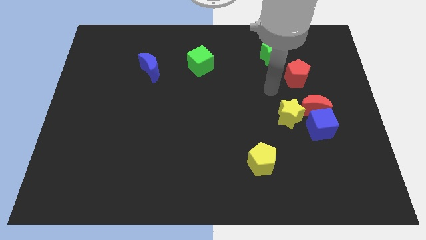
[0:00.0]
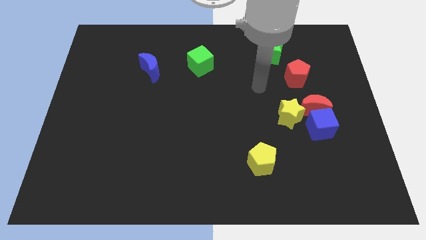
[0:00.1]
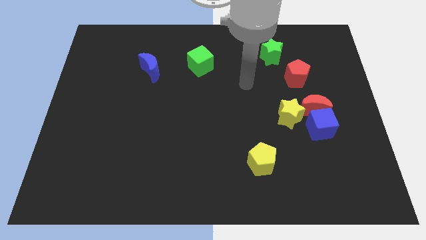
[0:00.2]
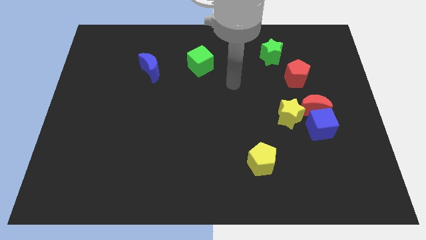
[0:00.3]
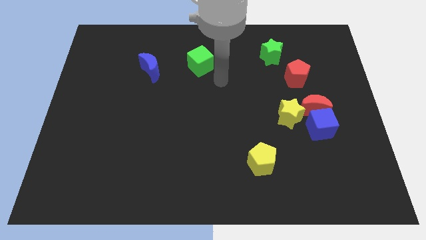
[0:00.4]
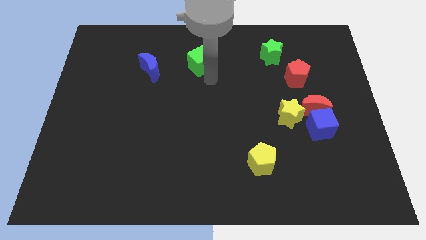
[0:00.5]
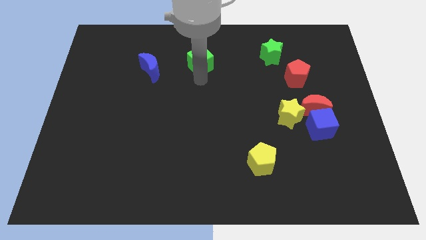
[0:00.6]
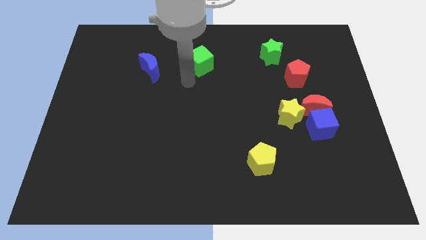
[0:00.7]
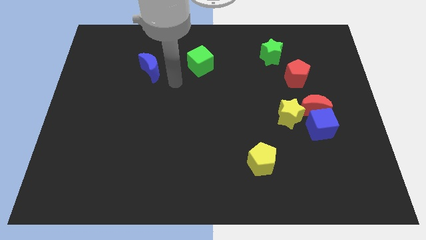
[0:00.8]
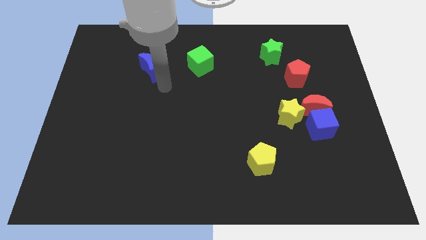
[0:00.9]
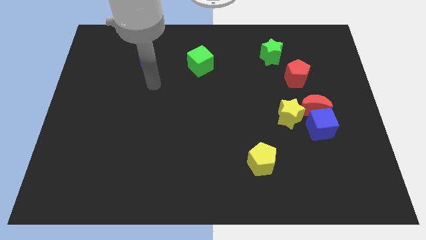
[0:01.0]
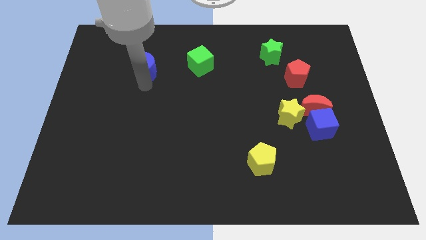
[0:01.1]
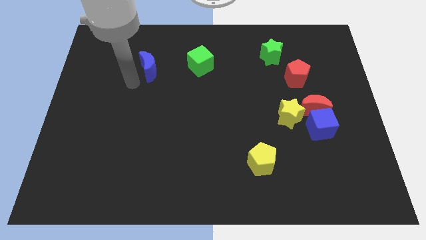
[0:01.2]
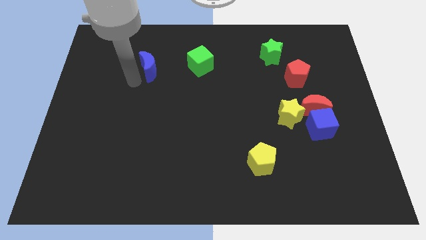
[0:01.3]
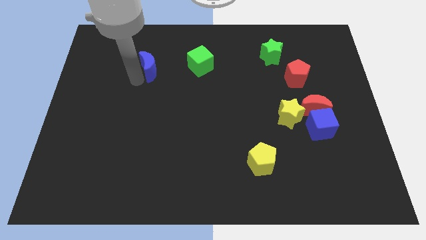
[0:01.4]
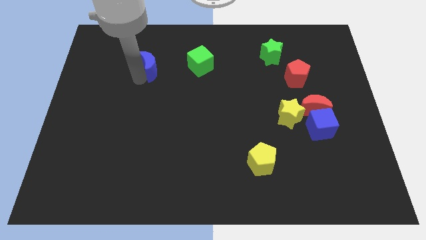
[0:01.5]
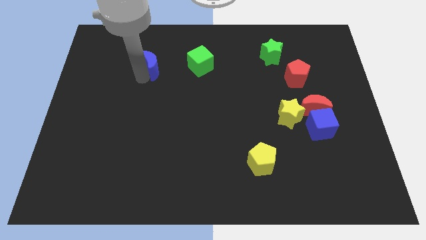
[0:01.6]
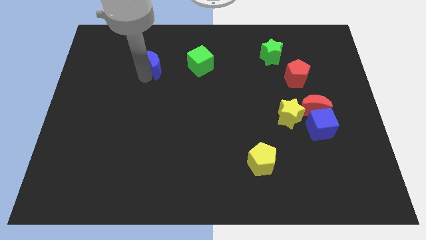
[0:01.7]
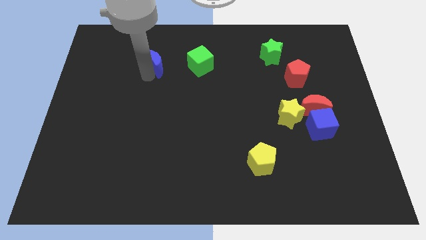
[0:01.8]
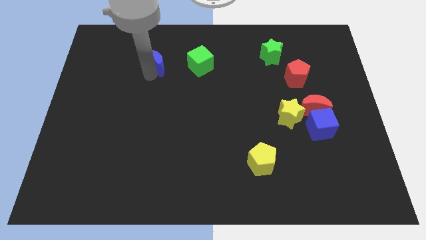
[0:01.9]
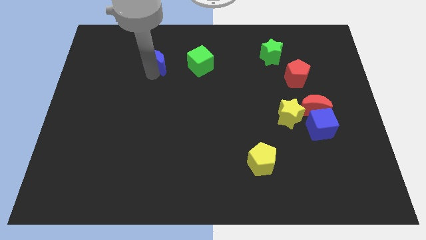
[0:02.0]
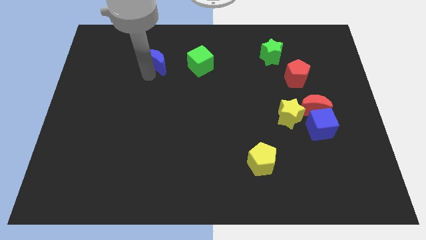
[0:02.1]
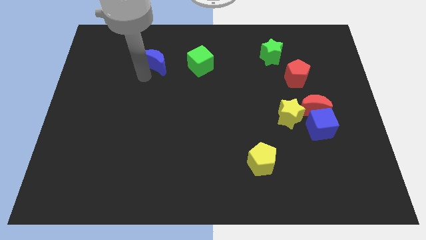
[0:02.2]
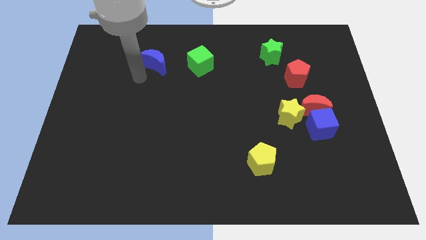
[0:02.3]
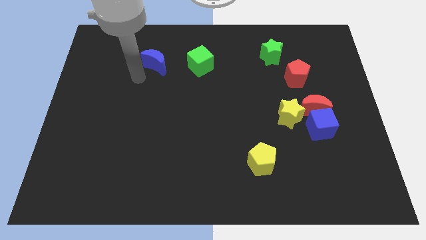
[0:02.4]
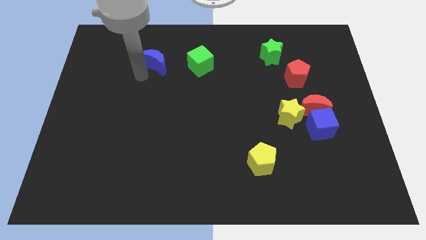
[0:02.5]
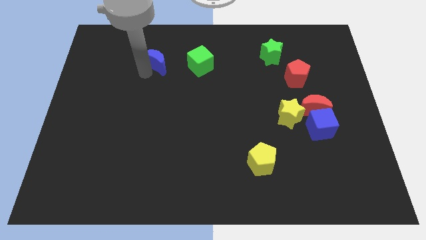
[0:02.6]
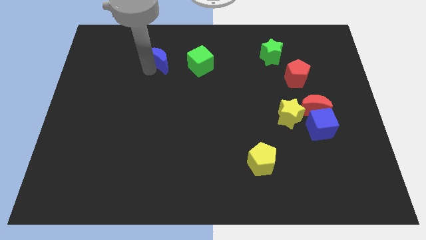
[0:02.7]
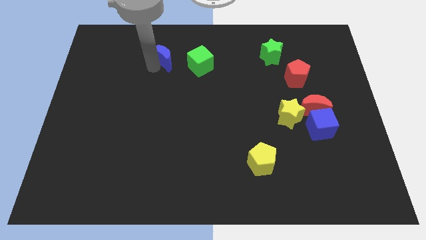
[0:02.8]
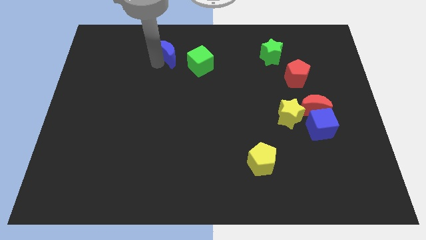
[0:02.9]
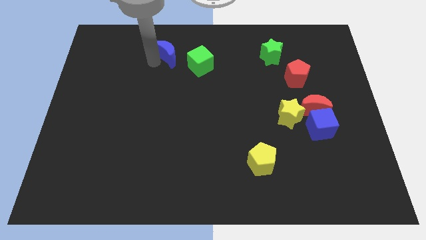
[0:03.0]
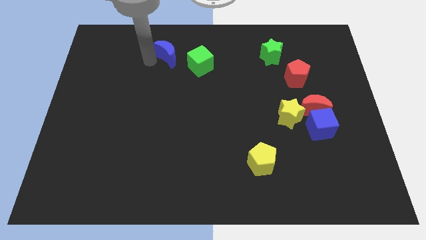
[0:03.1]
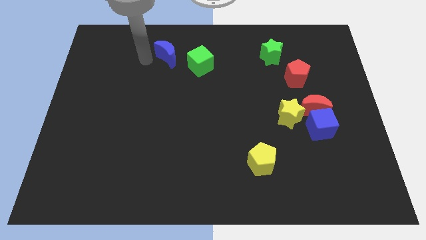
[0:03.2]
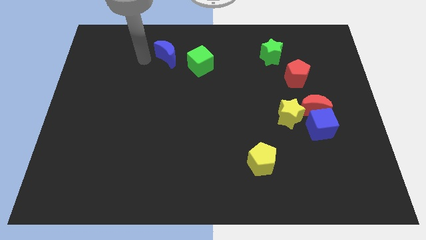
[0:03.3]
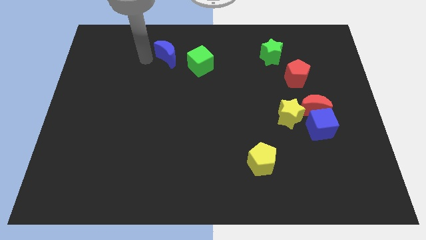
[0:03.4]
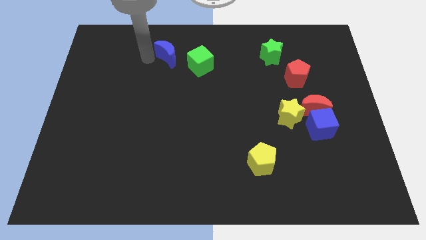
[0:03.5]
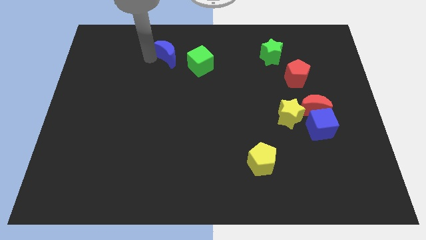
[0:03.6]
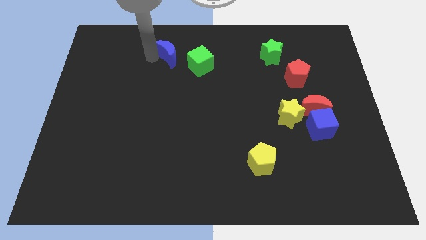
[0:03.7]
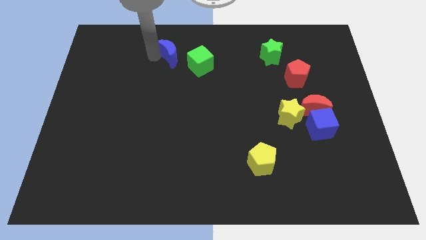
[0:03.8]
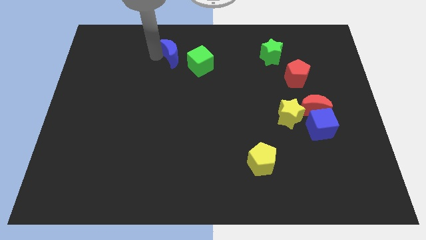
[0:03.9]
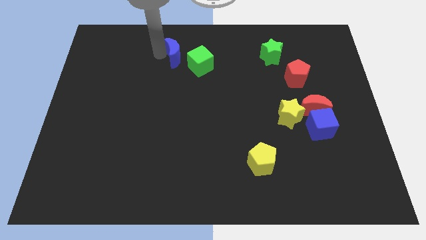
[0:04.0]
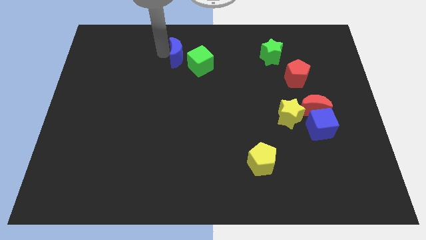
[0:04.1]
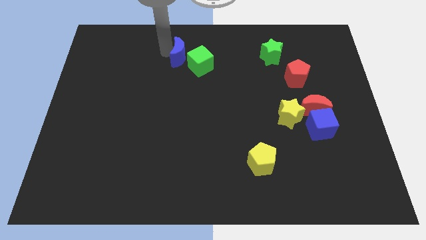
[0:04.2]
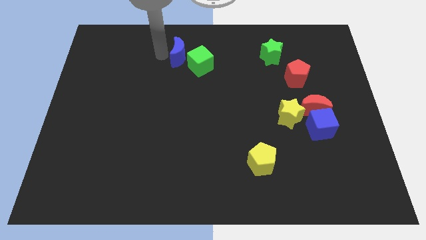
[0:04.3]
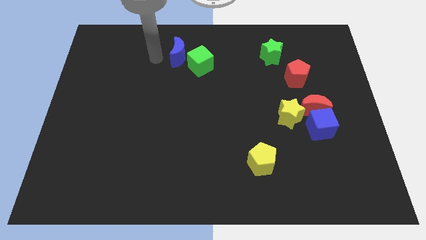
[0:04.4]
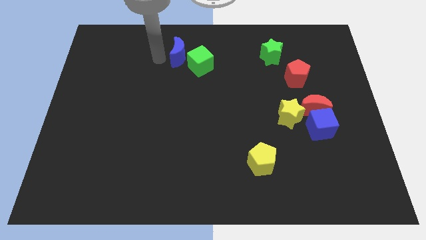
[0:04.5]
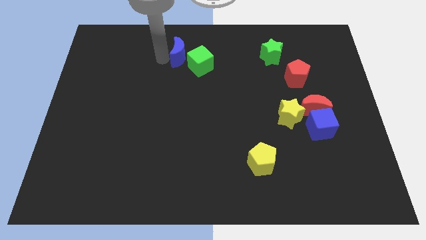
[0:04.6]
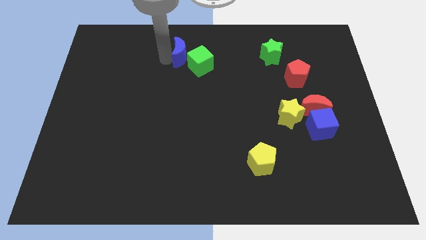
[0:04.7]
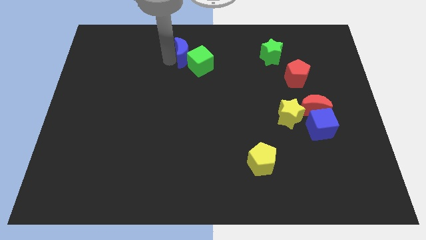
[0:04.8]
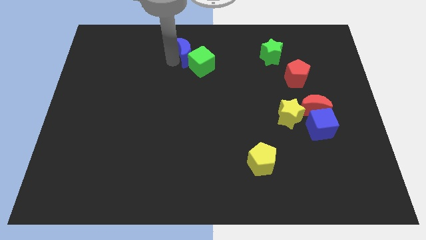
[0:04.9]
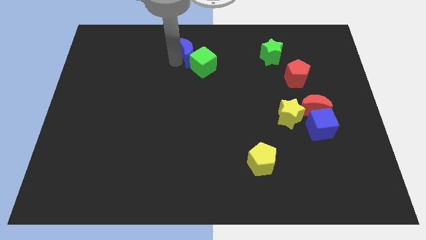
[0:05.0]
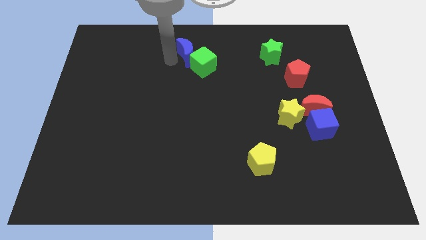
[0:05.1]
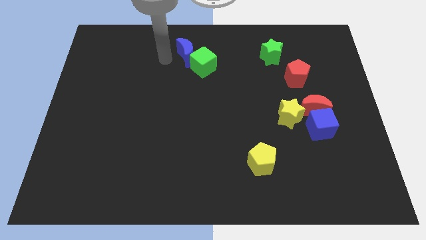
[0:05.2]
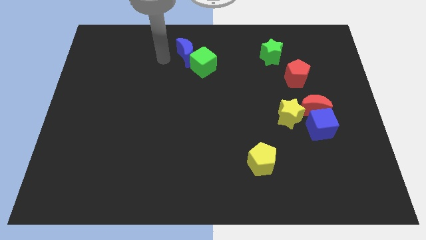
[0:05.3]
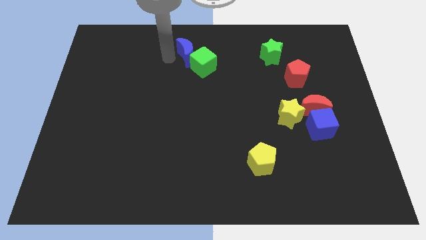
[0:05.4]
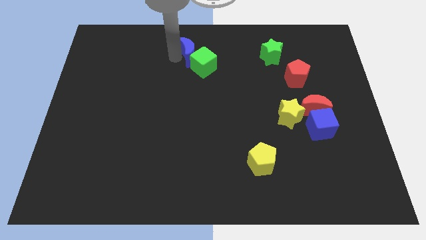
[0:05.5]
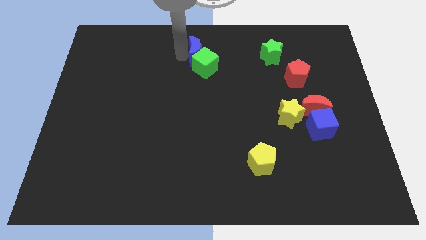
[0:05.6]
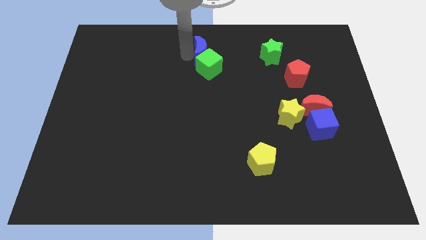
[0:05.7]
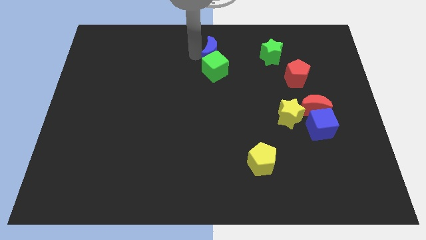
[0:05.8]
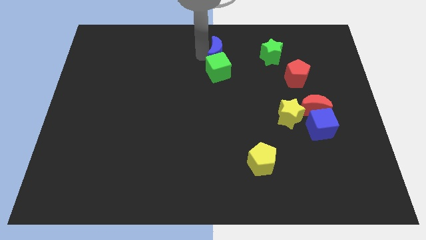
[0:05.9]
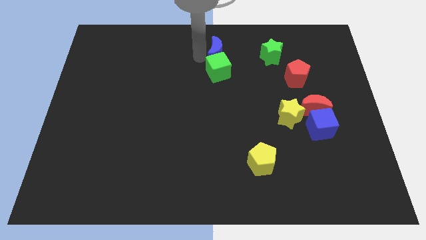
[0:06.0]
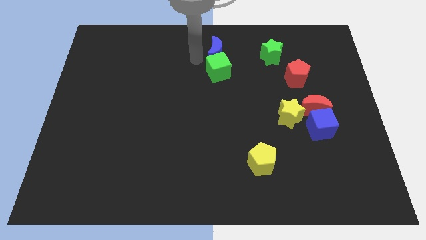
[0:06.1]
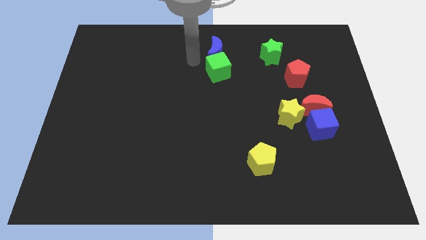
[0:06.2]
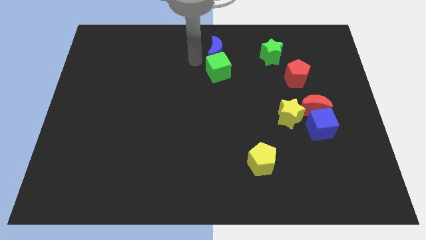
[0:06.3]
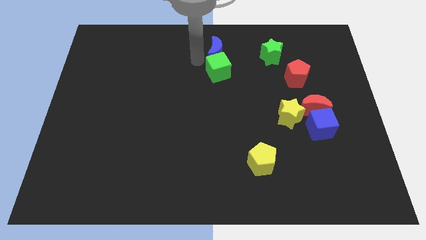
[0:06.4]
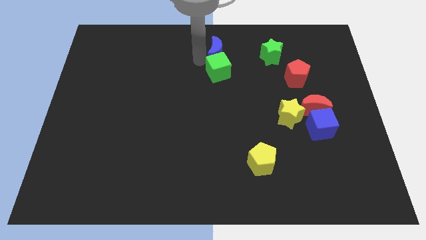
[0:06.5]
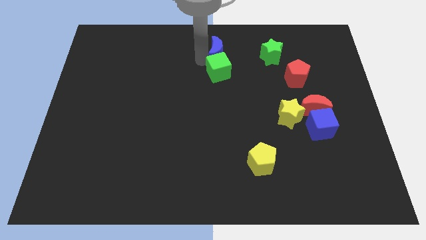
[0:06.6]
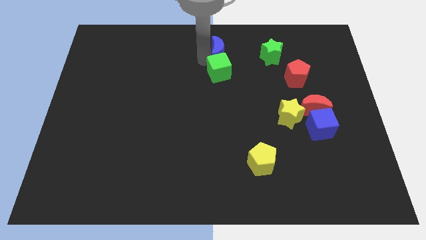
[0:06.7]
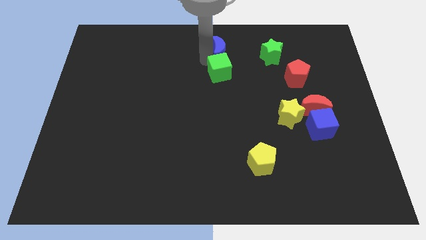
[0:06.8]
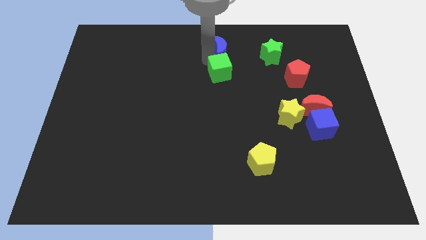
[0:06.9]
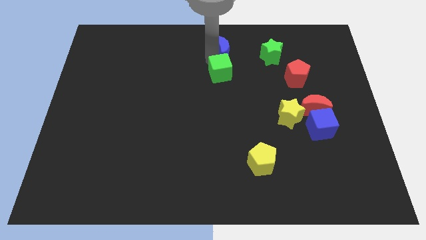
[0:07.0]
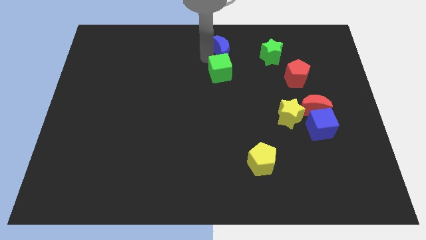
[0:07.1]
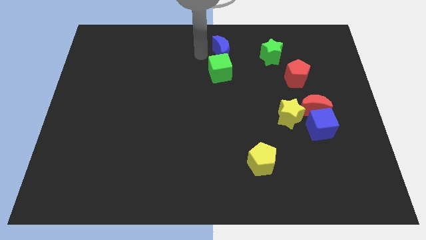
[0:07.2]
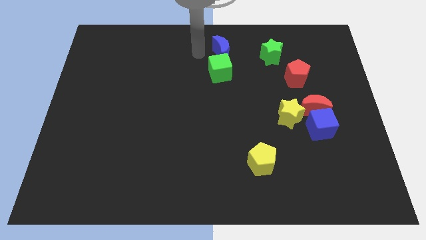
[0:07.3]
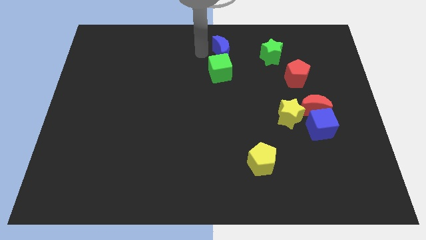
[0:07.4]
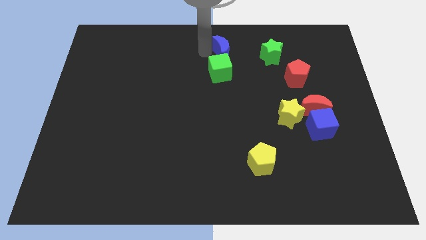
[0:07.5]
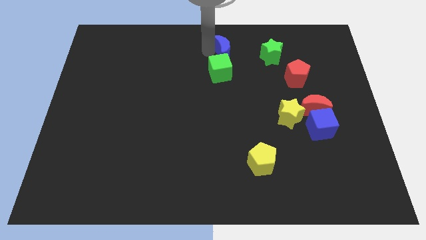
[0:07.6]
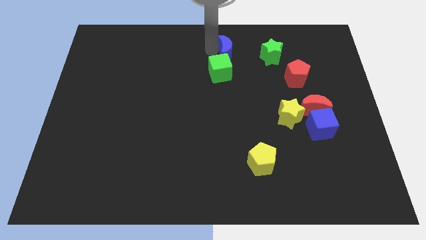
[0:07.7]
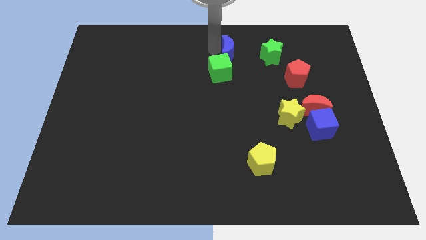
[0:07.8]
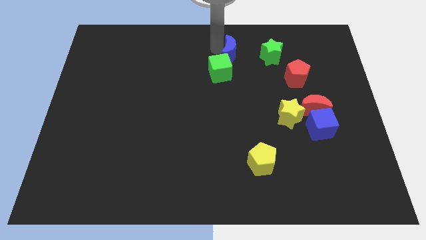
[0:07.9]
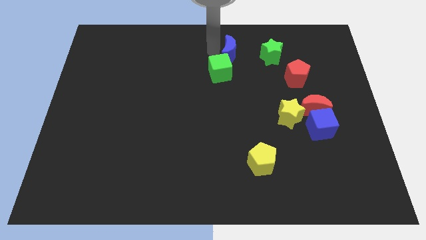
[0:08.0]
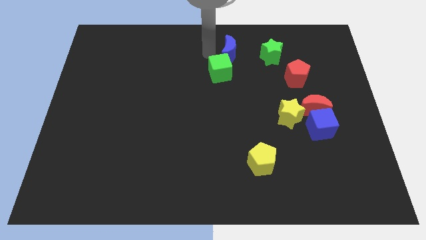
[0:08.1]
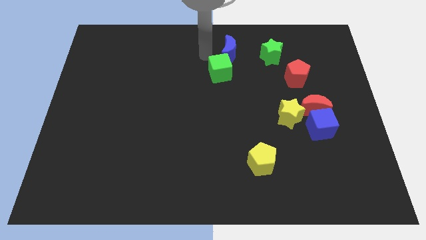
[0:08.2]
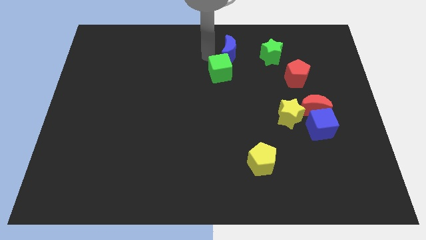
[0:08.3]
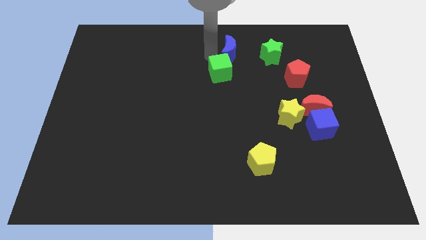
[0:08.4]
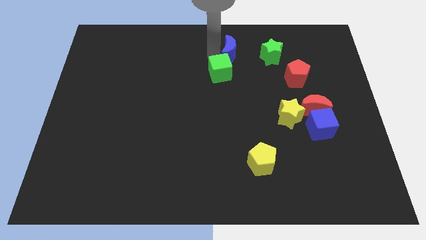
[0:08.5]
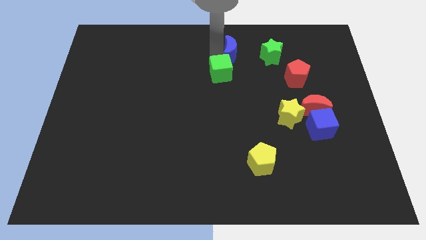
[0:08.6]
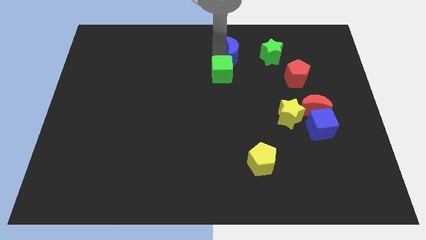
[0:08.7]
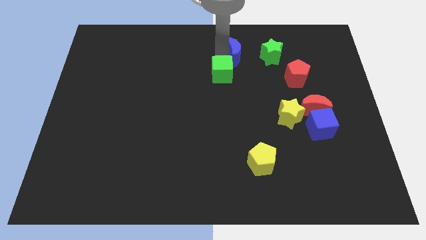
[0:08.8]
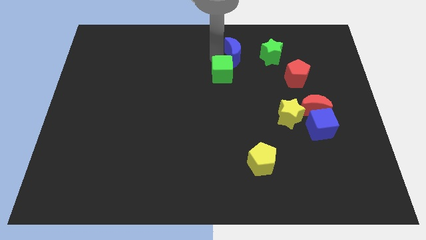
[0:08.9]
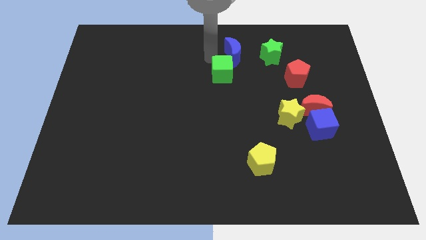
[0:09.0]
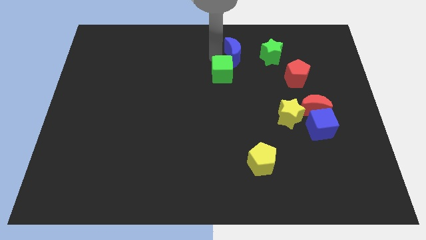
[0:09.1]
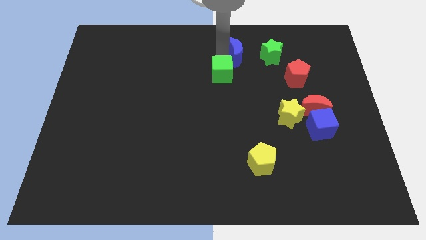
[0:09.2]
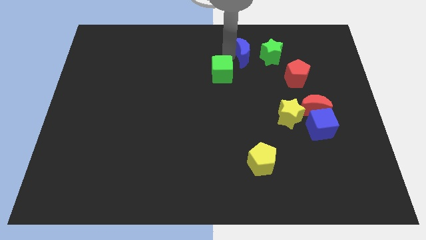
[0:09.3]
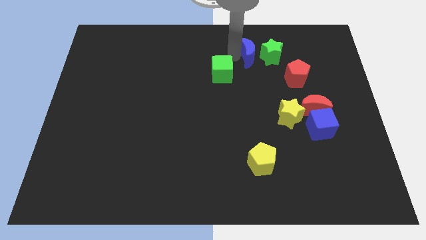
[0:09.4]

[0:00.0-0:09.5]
put the blue moon next to the green star
